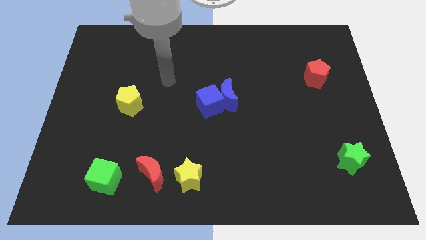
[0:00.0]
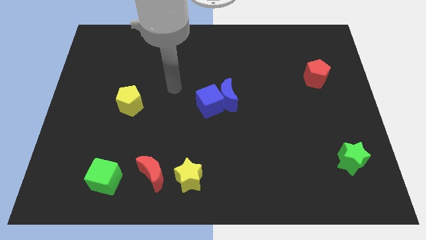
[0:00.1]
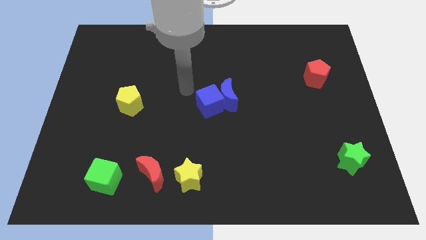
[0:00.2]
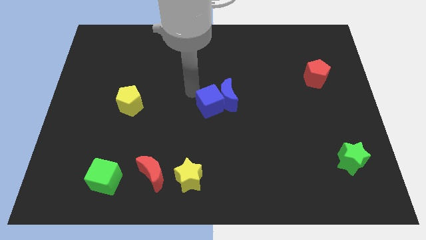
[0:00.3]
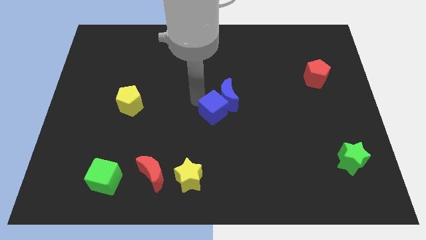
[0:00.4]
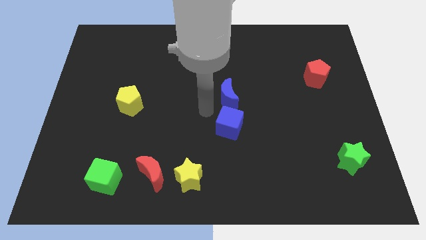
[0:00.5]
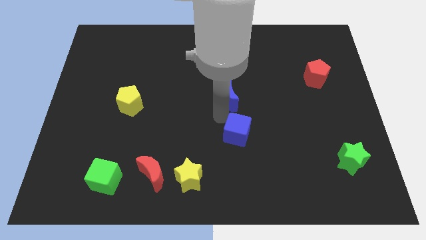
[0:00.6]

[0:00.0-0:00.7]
pull the blue moon apart from the blue cube

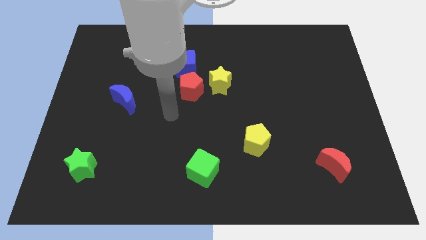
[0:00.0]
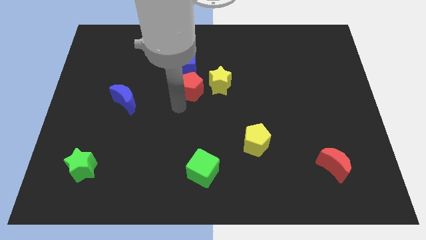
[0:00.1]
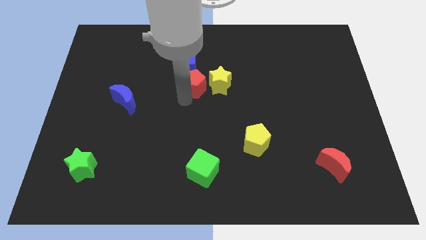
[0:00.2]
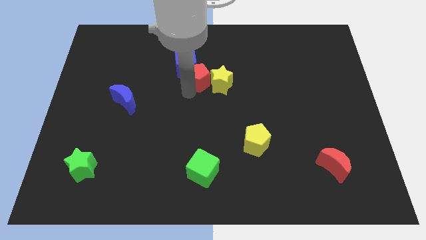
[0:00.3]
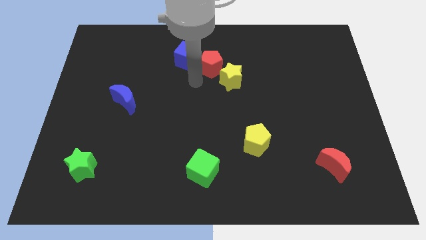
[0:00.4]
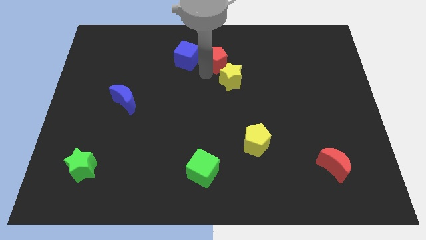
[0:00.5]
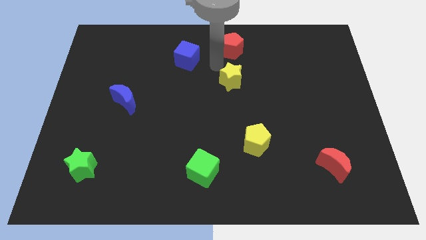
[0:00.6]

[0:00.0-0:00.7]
pull the yellow star apart from the red pentagon

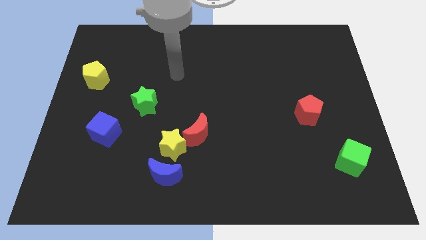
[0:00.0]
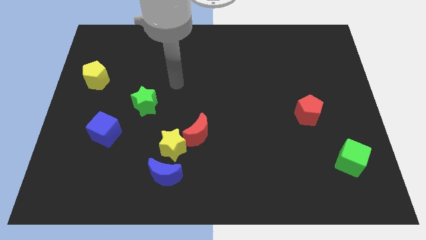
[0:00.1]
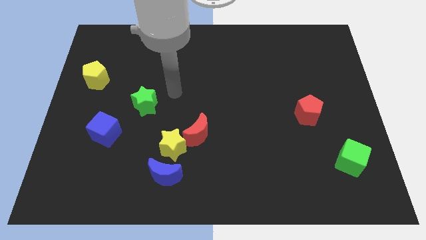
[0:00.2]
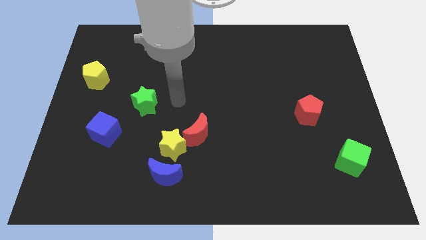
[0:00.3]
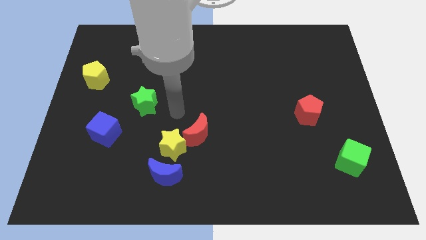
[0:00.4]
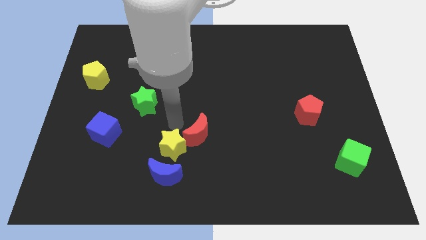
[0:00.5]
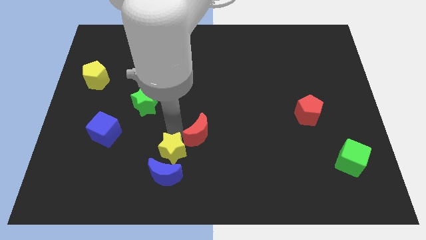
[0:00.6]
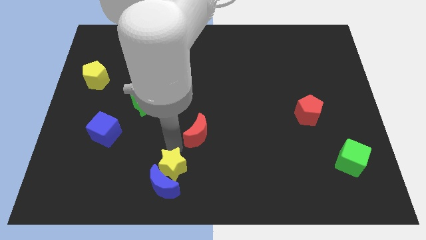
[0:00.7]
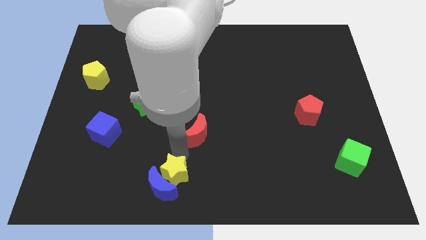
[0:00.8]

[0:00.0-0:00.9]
move the red moon away from the yellow star

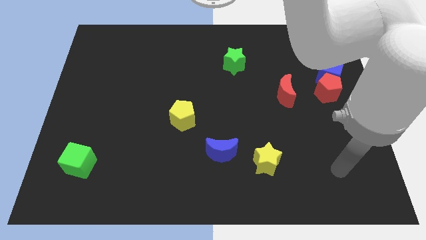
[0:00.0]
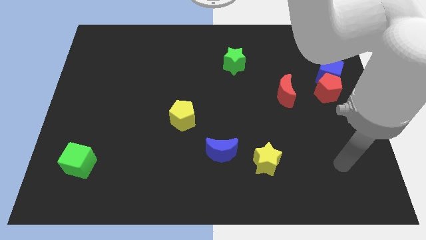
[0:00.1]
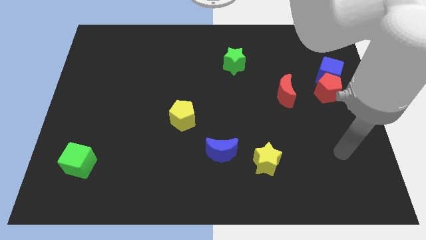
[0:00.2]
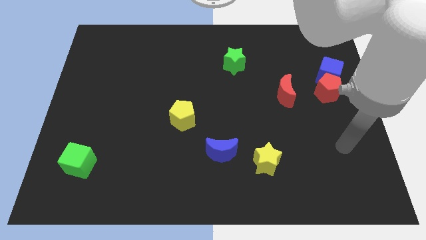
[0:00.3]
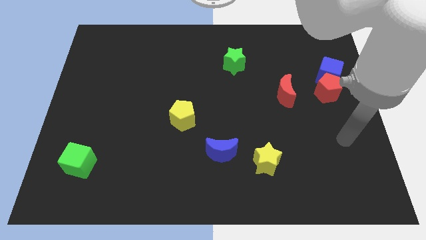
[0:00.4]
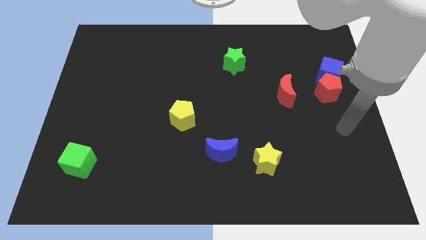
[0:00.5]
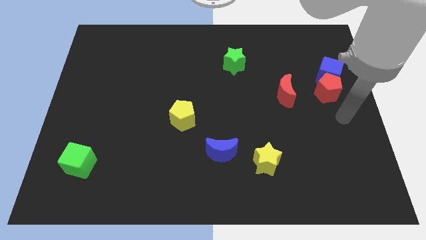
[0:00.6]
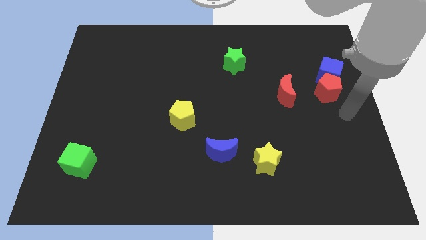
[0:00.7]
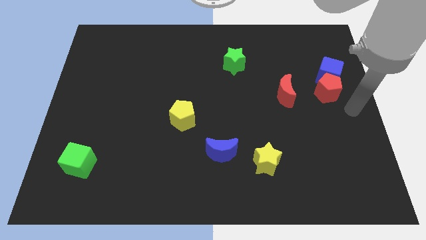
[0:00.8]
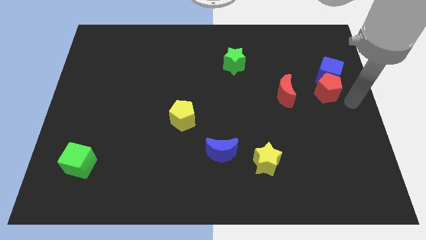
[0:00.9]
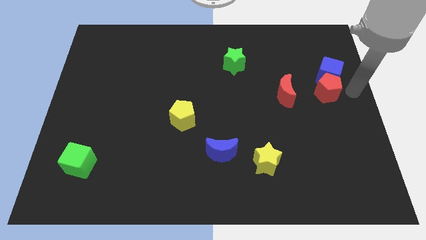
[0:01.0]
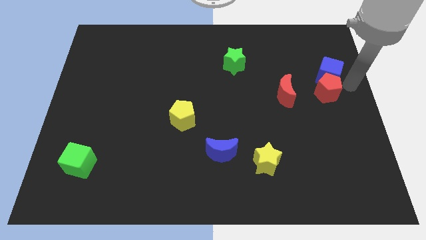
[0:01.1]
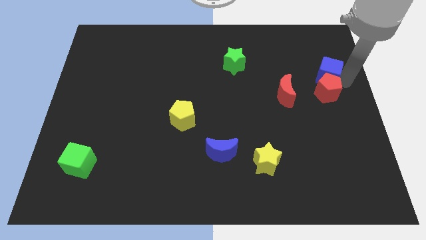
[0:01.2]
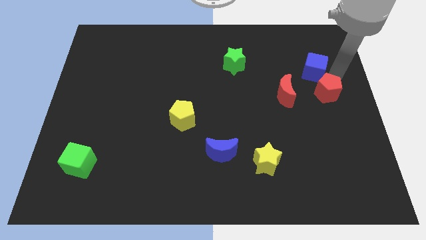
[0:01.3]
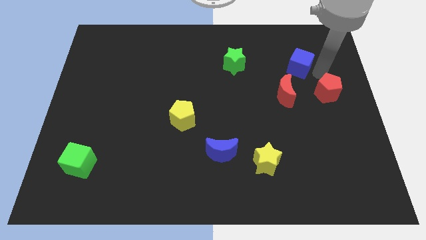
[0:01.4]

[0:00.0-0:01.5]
pull the red pentagon apart from the blue cube

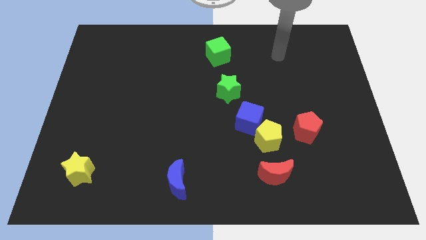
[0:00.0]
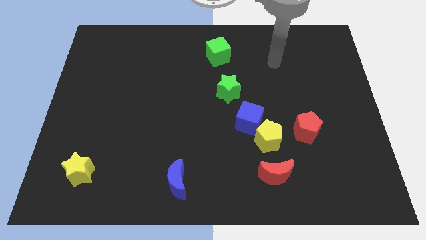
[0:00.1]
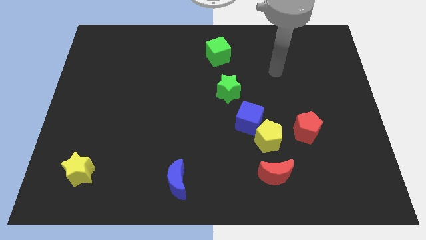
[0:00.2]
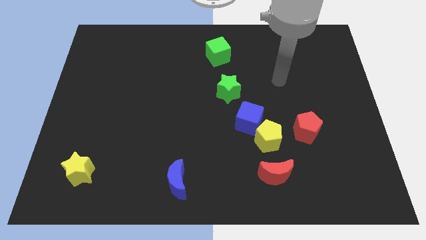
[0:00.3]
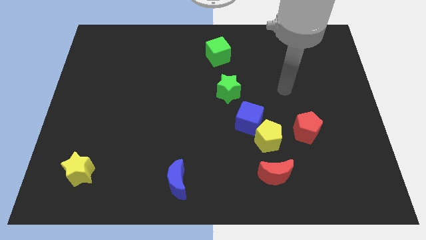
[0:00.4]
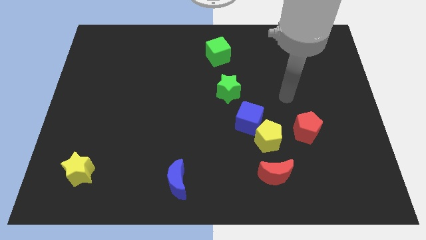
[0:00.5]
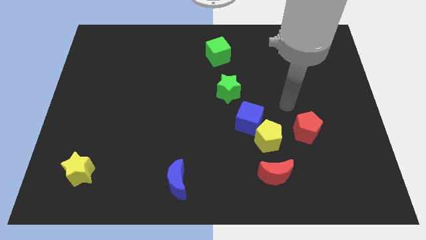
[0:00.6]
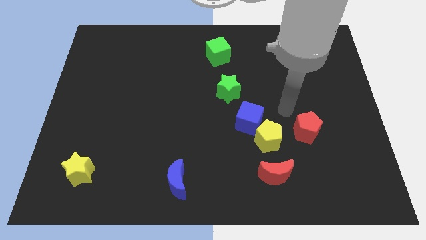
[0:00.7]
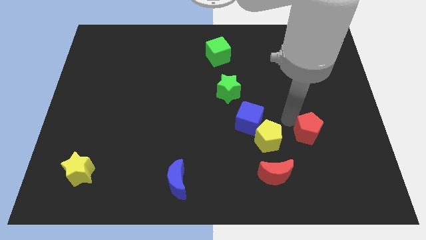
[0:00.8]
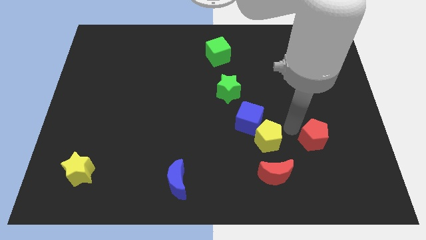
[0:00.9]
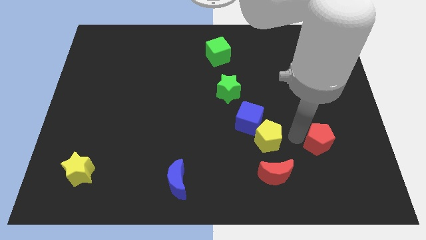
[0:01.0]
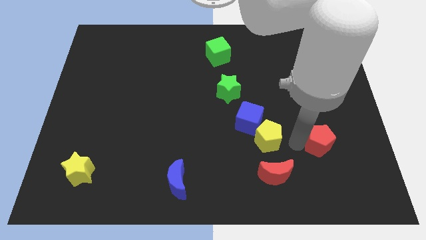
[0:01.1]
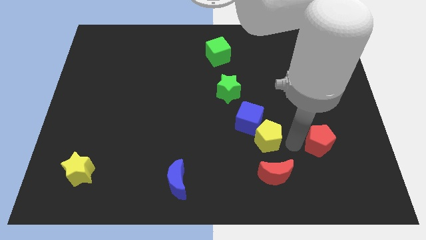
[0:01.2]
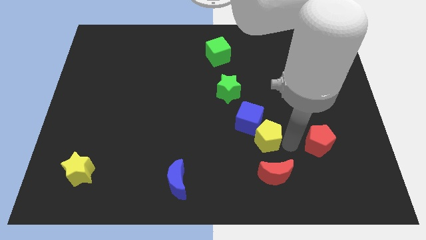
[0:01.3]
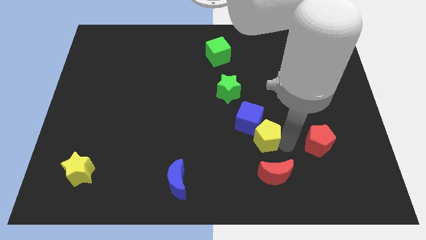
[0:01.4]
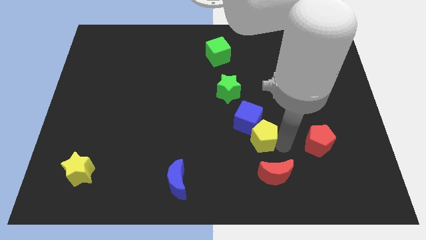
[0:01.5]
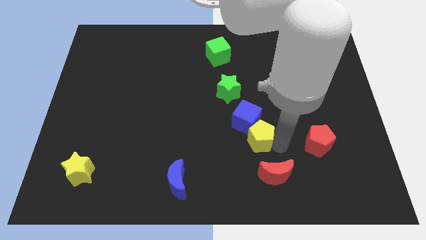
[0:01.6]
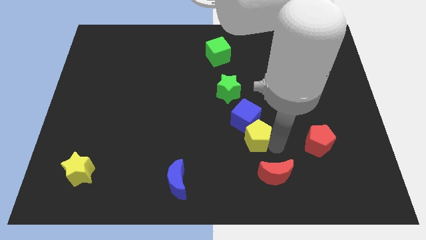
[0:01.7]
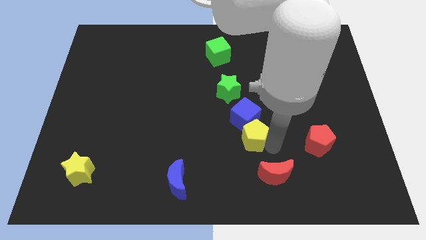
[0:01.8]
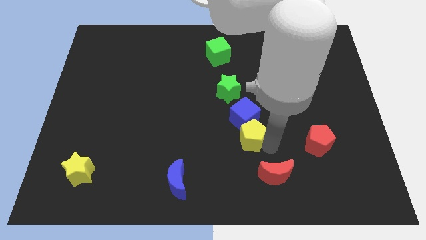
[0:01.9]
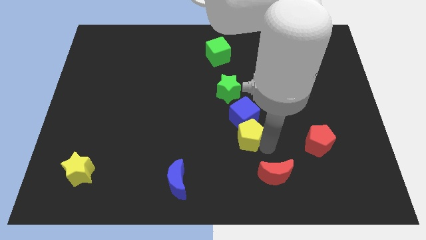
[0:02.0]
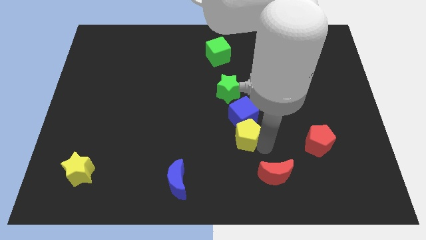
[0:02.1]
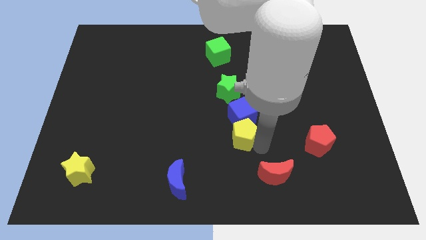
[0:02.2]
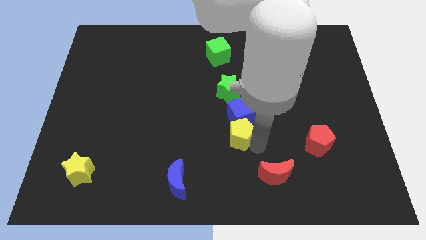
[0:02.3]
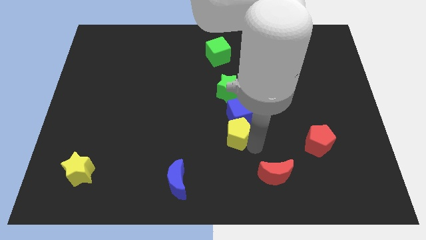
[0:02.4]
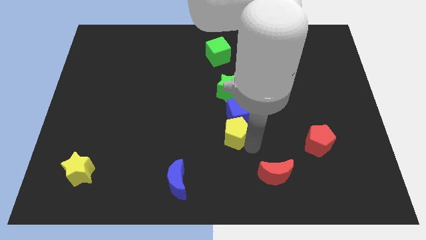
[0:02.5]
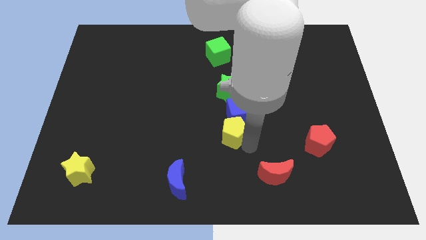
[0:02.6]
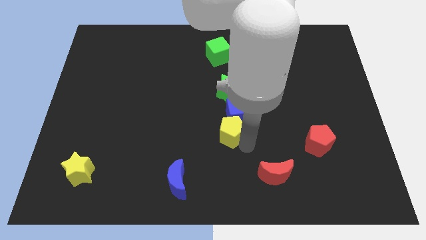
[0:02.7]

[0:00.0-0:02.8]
separate the yellow pentagon from the group of blocks

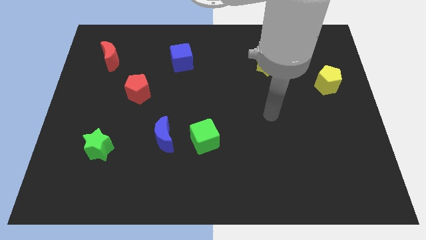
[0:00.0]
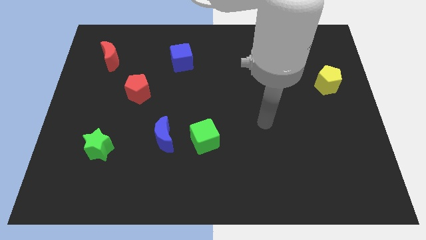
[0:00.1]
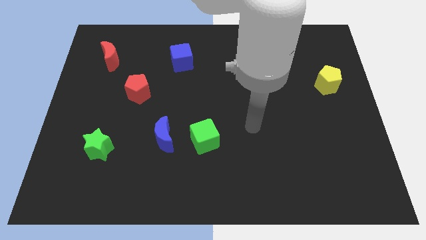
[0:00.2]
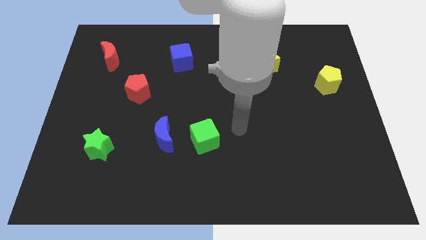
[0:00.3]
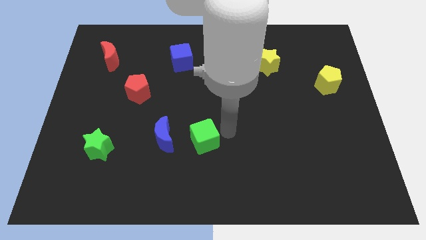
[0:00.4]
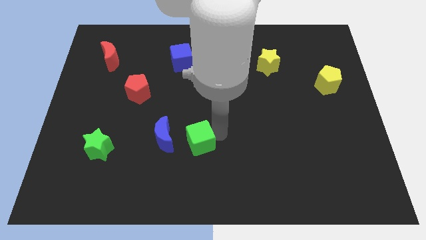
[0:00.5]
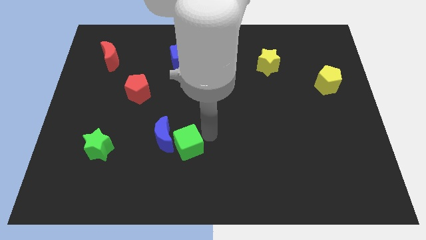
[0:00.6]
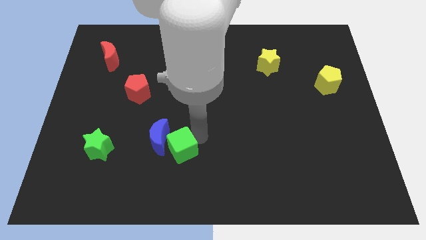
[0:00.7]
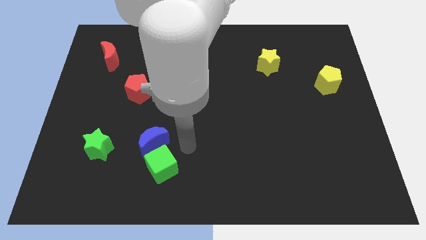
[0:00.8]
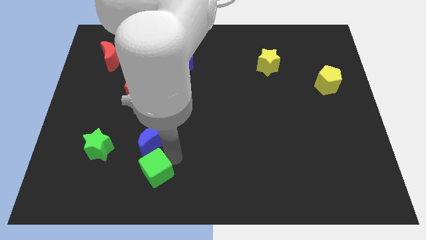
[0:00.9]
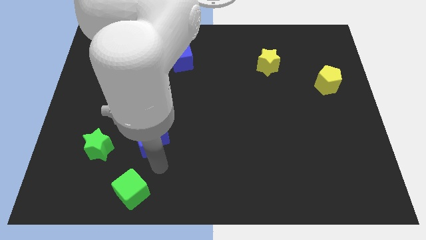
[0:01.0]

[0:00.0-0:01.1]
separate the blue moon from the green cube

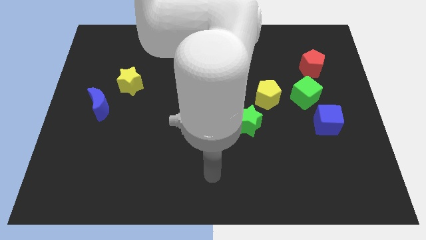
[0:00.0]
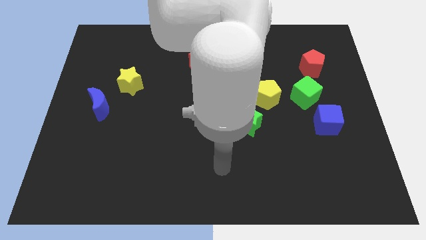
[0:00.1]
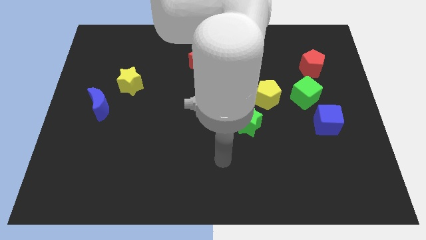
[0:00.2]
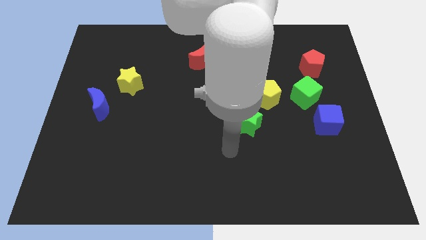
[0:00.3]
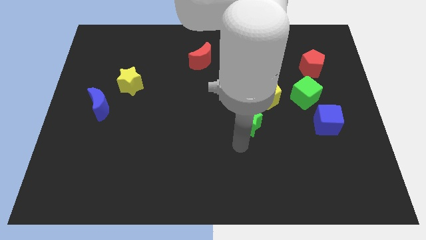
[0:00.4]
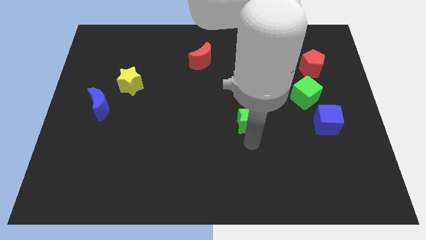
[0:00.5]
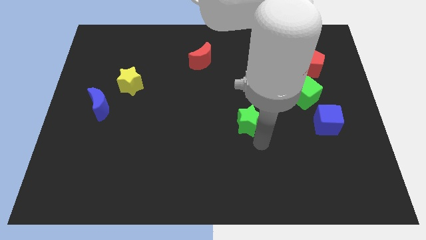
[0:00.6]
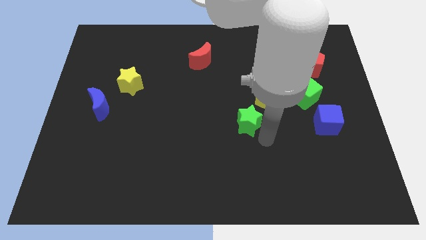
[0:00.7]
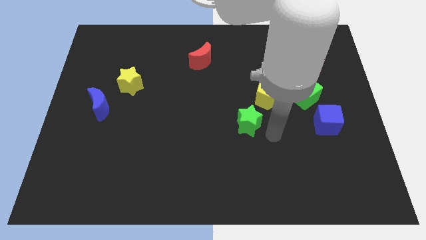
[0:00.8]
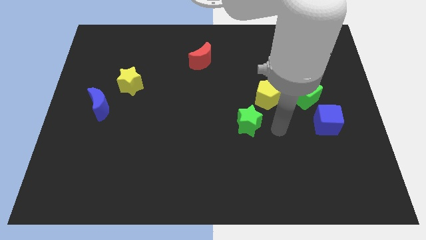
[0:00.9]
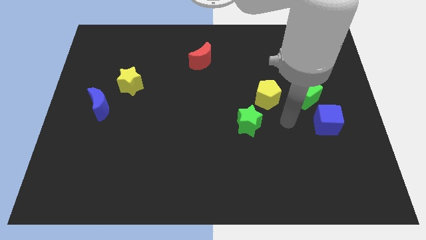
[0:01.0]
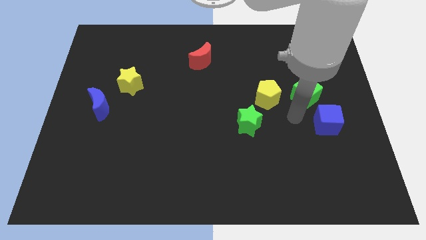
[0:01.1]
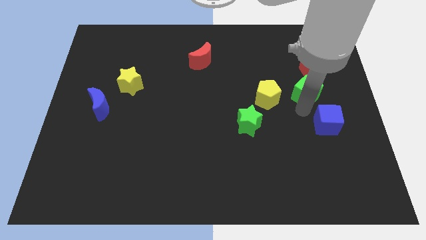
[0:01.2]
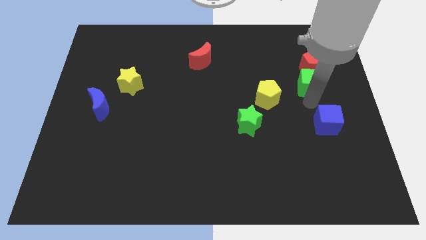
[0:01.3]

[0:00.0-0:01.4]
move the blue cube away from the green cube

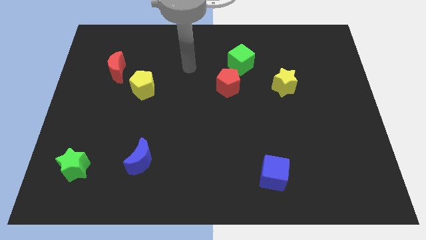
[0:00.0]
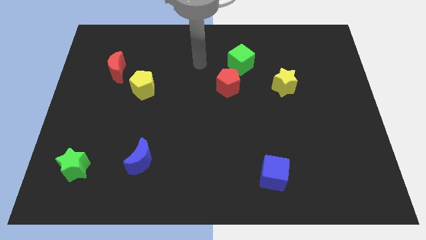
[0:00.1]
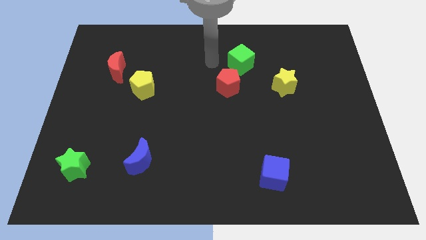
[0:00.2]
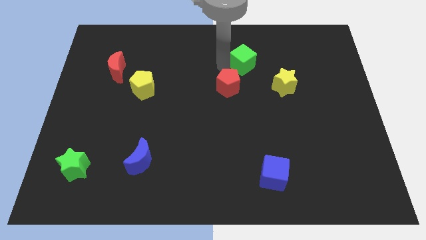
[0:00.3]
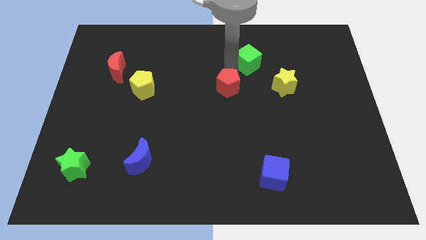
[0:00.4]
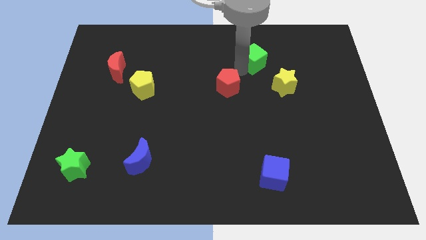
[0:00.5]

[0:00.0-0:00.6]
pull the red pentagon apart from the green cube
